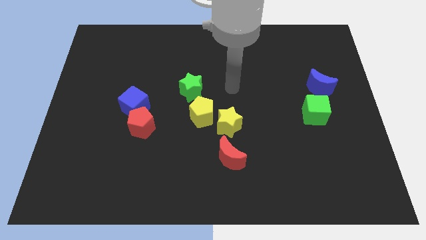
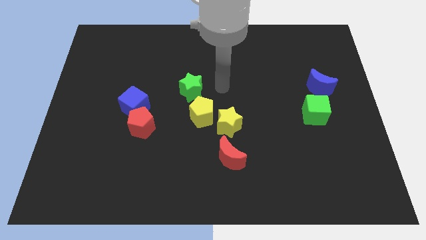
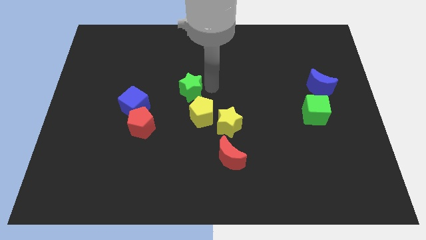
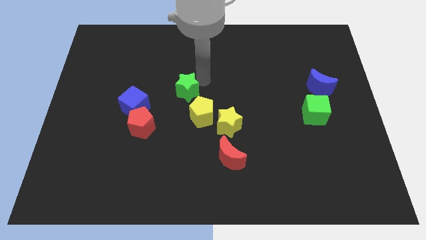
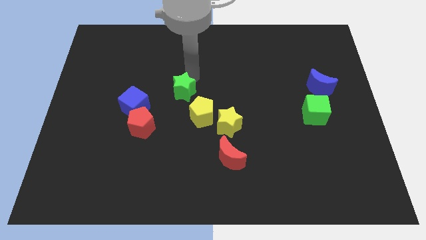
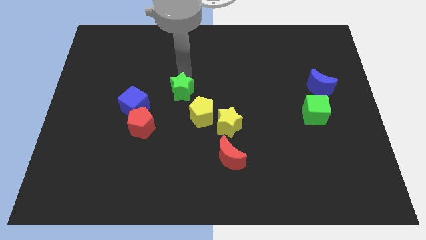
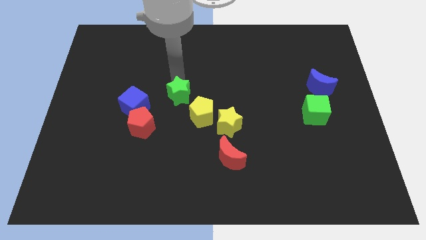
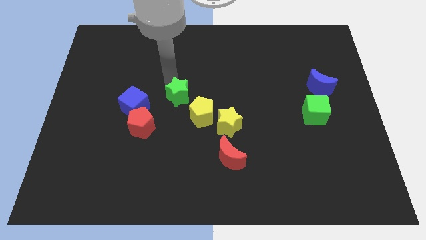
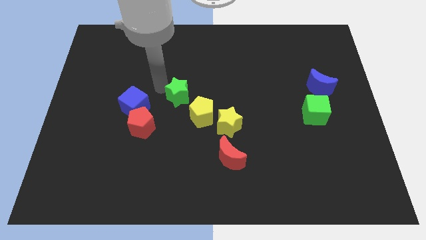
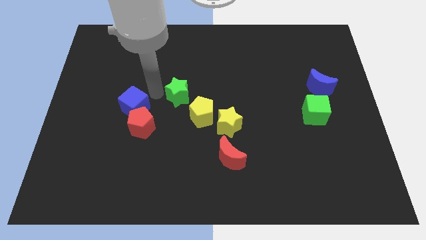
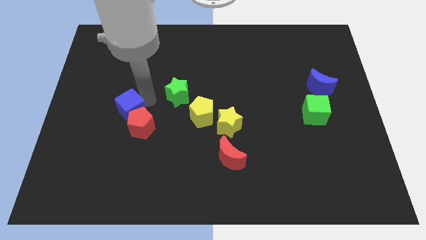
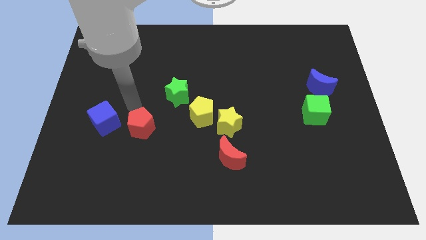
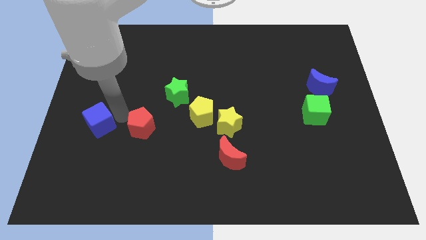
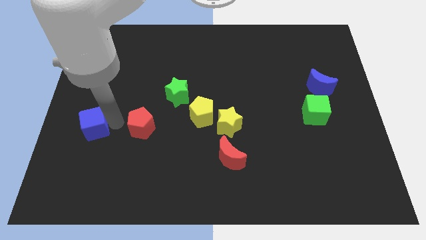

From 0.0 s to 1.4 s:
separate the red pentagon from the blue cube

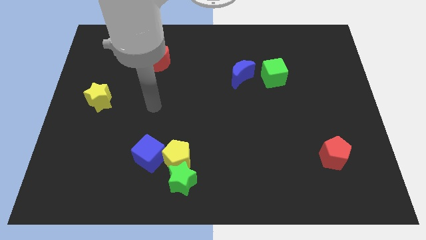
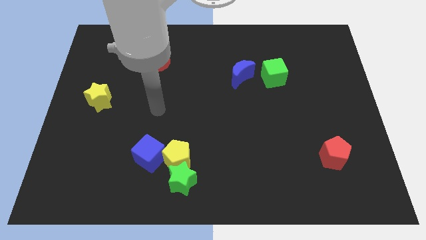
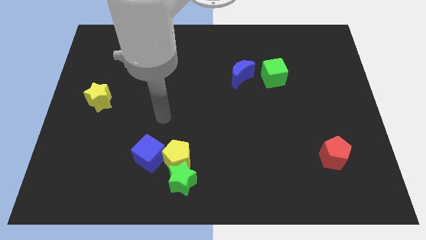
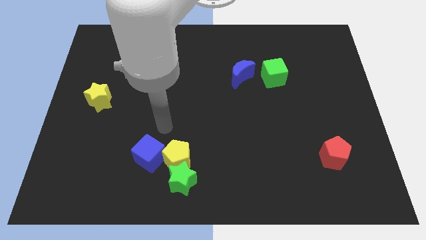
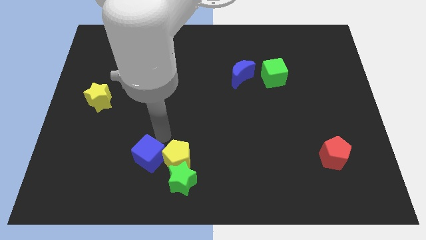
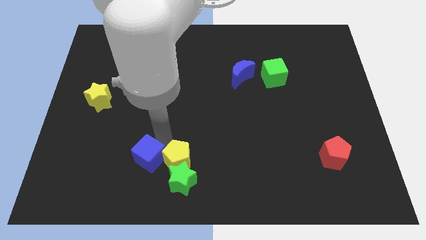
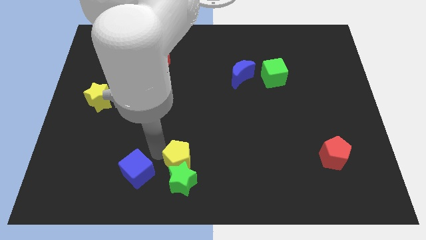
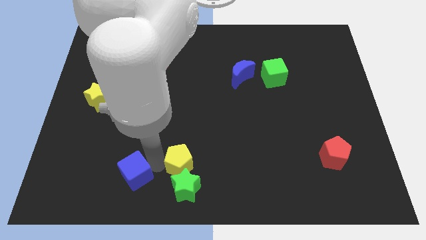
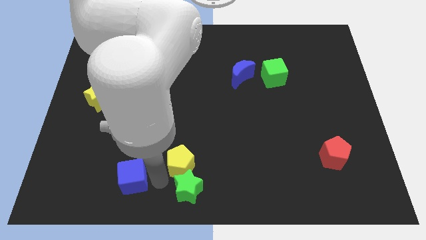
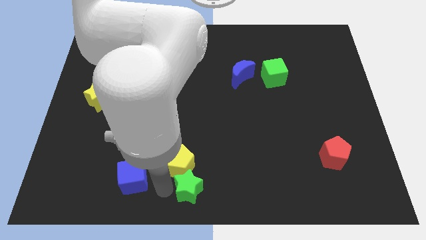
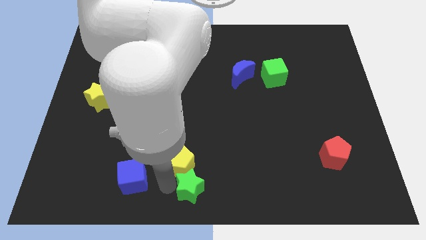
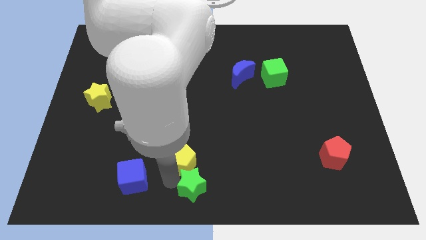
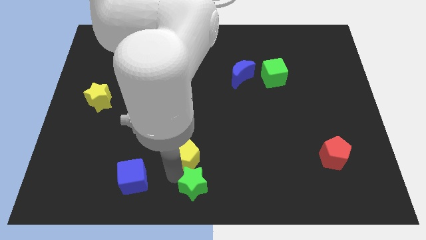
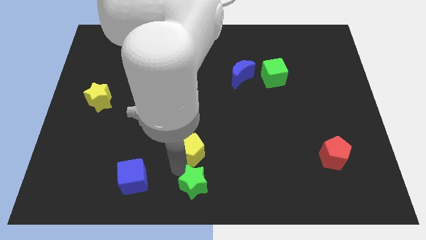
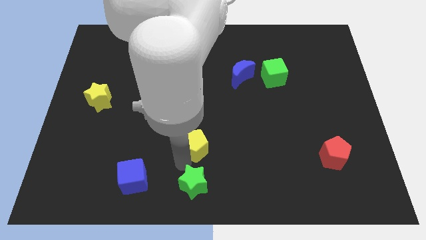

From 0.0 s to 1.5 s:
separate the yellow pentagon from the green star and blue cube

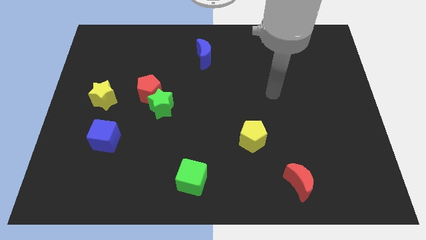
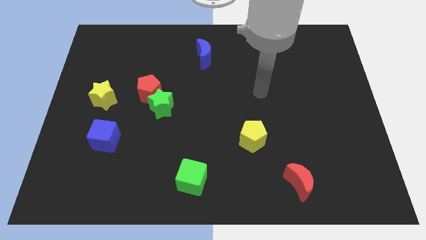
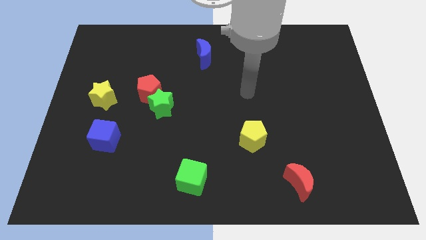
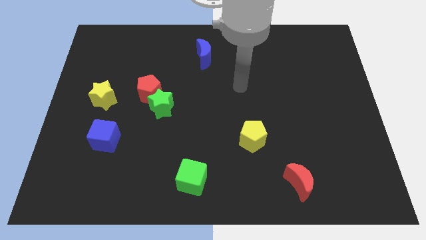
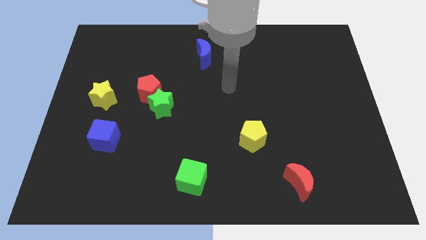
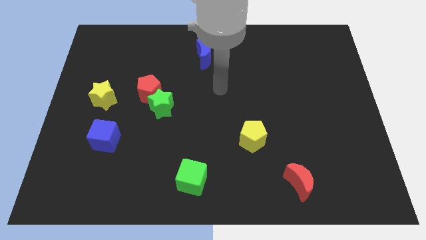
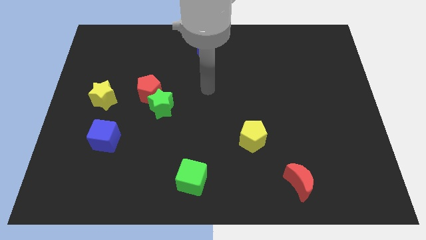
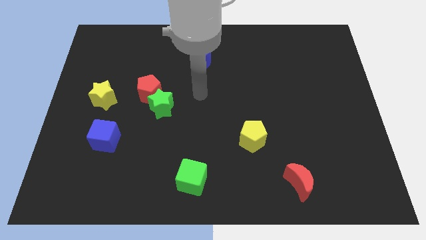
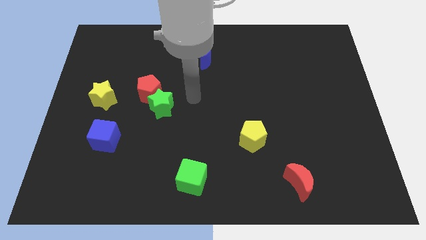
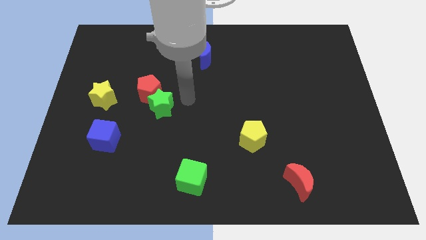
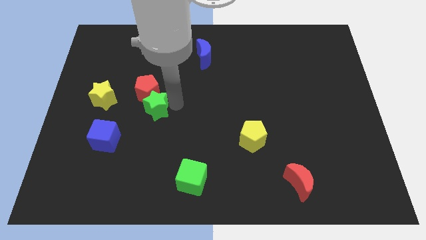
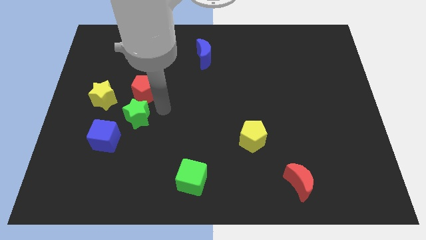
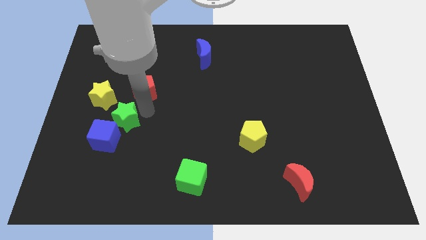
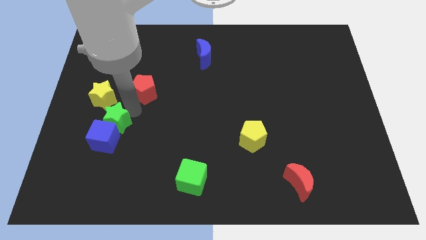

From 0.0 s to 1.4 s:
move the red pentagon away from the green star

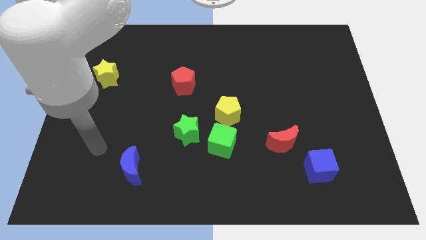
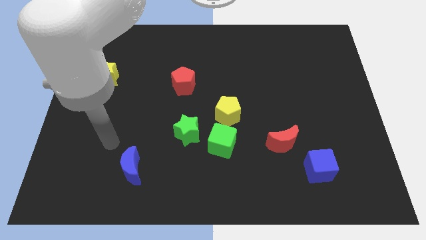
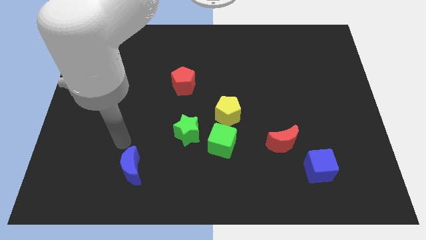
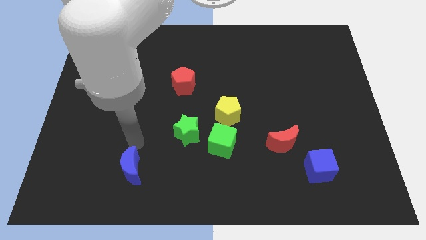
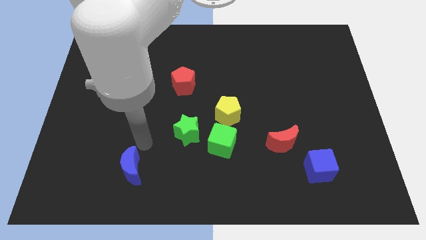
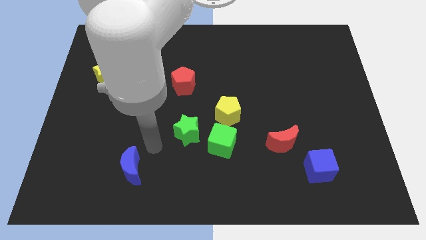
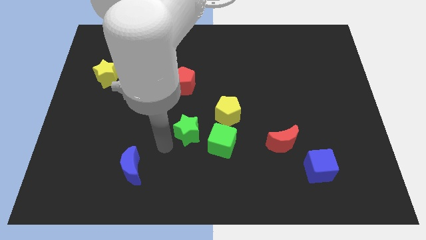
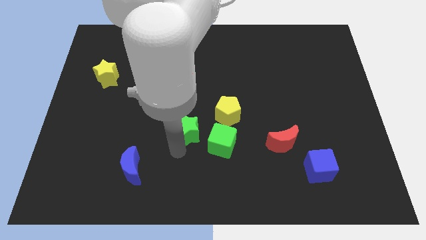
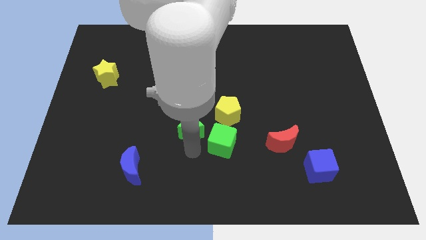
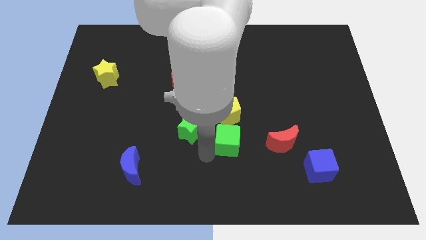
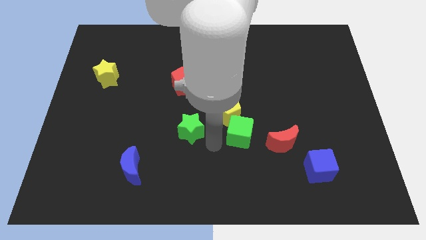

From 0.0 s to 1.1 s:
separate the green star from the green cube

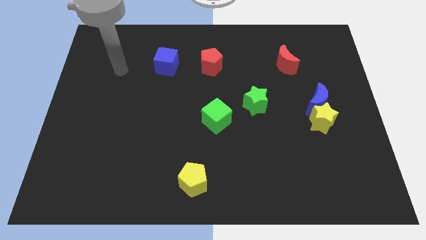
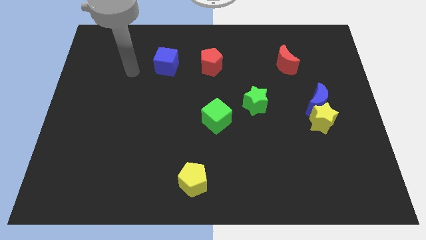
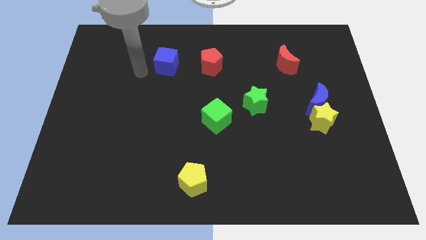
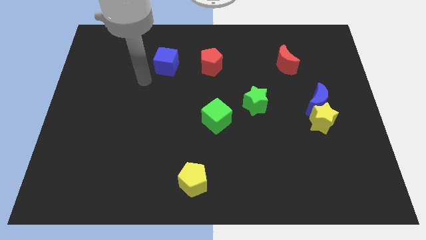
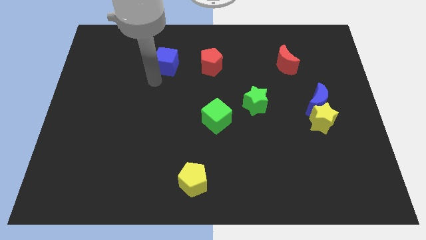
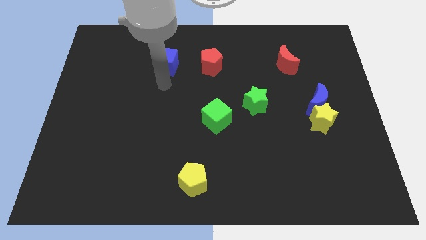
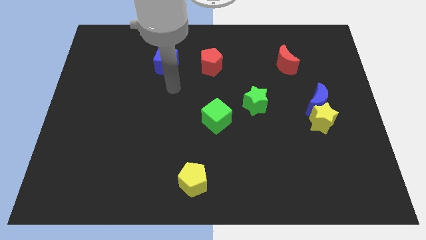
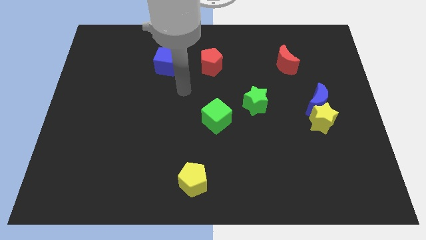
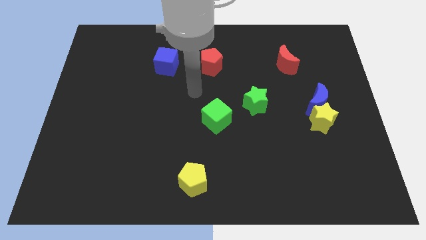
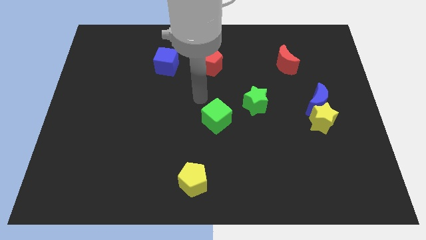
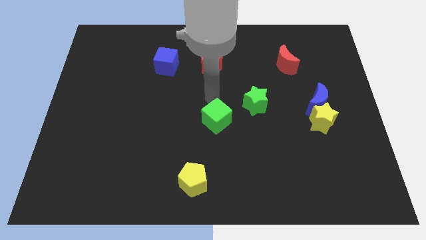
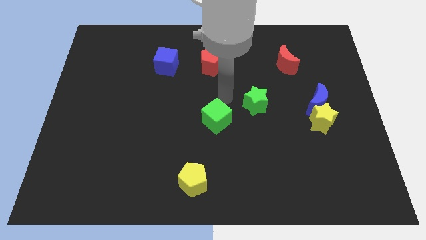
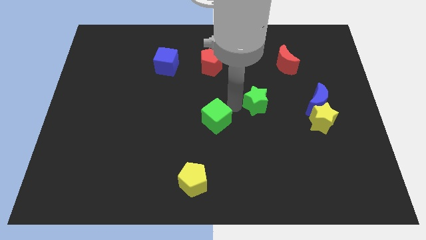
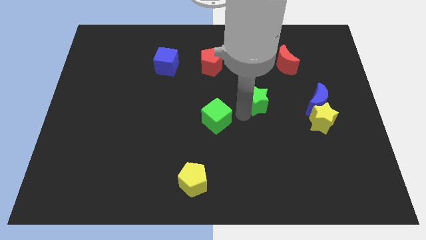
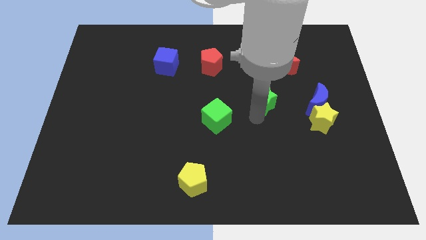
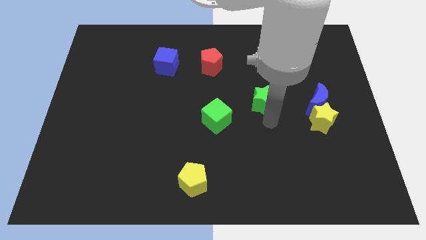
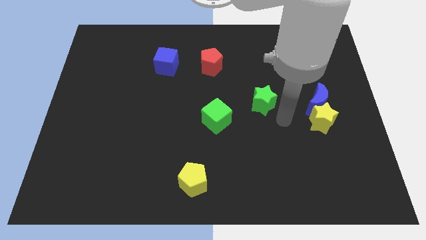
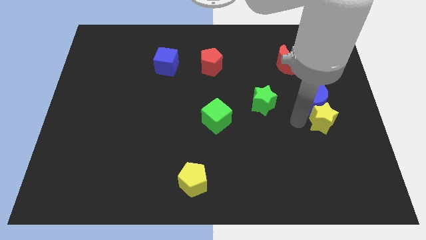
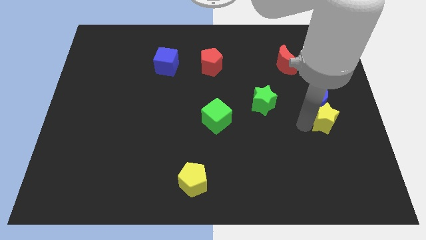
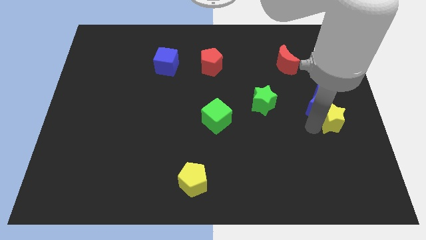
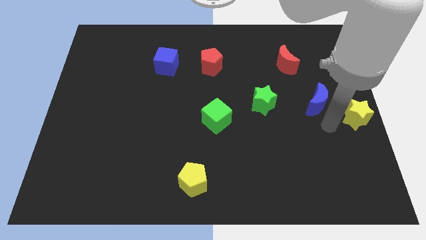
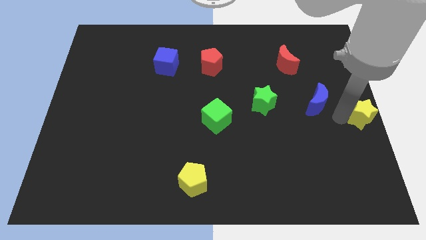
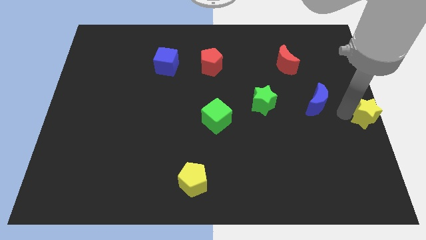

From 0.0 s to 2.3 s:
separate the blue moon from the yellow star

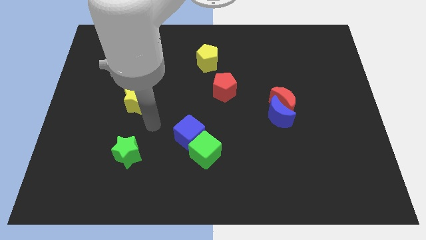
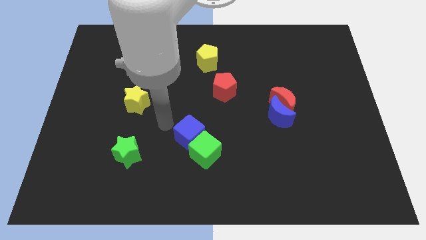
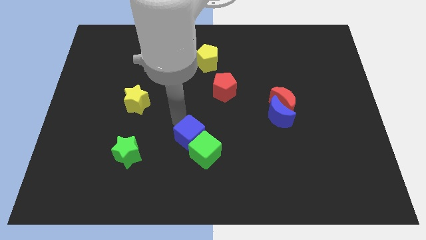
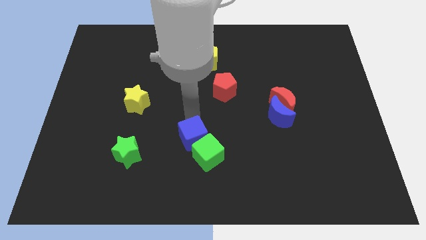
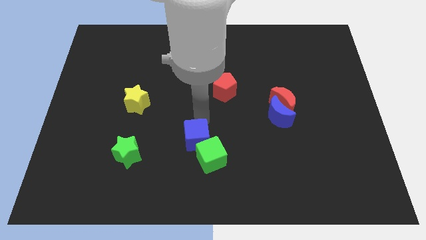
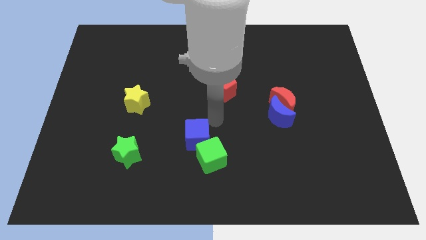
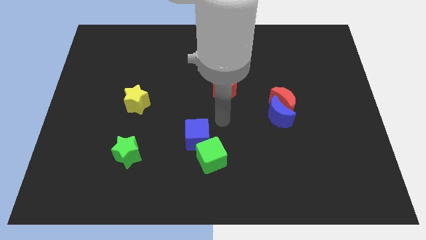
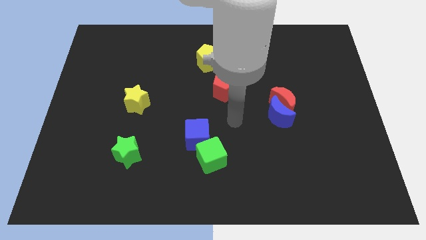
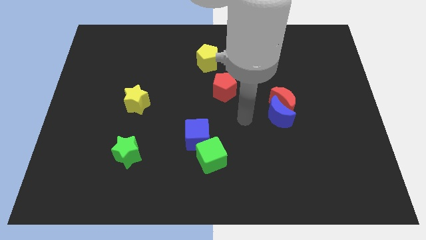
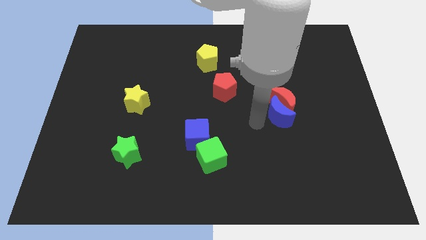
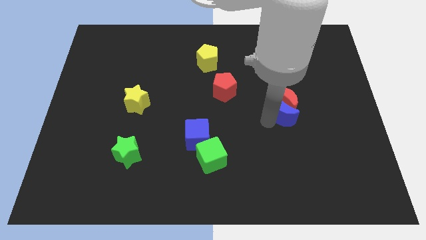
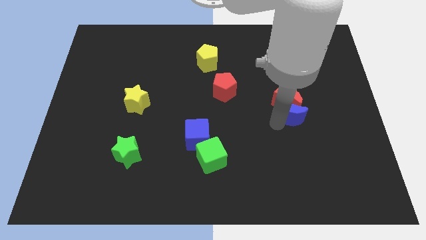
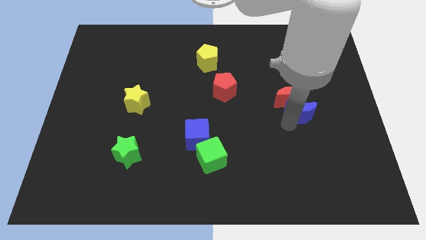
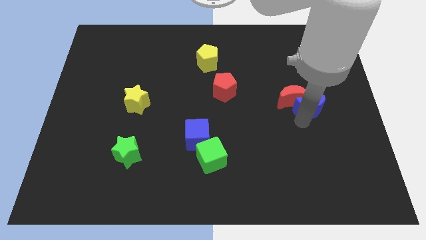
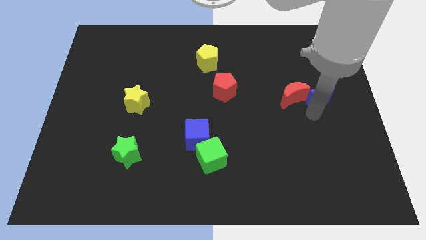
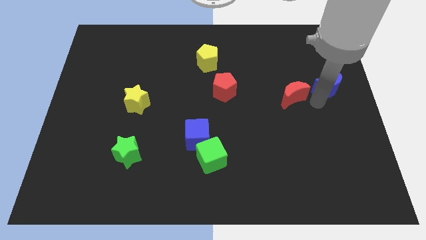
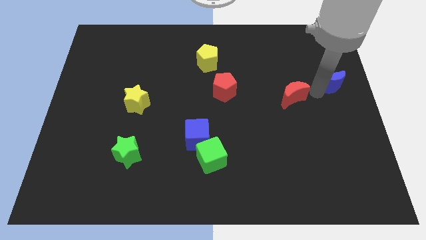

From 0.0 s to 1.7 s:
separate the red moon from the blue moon
